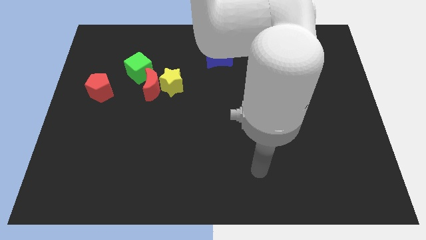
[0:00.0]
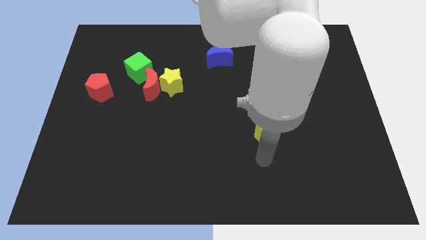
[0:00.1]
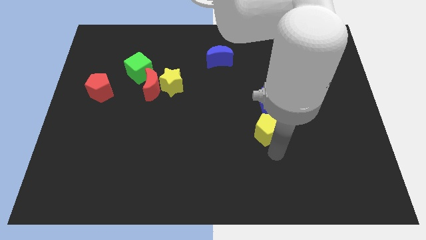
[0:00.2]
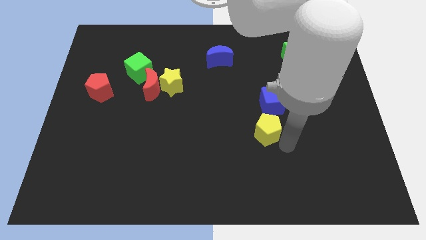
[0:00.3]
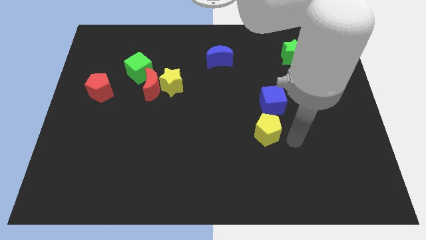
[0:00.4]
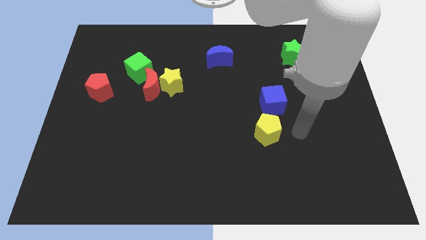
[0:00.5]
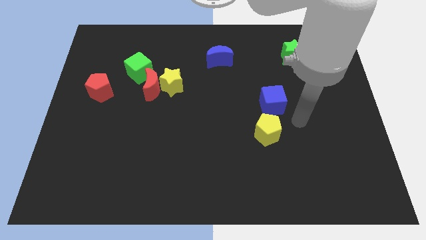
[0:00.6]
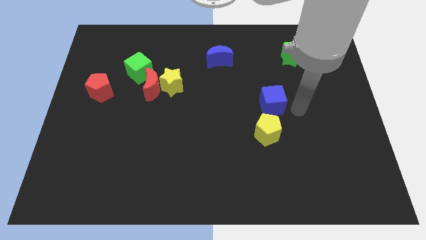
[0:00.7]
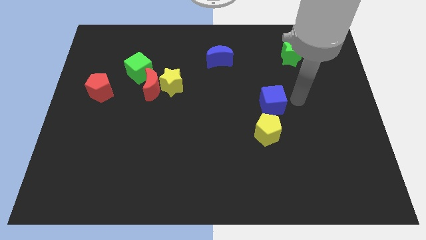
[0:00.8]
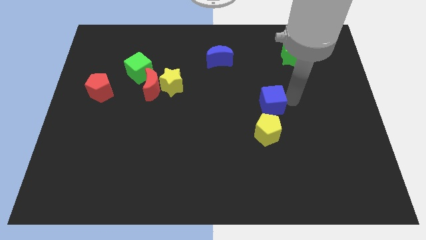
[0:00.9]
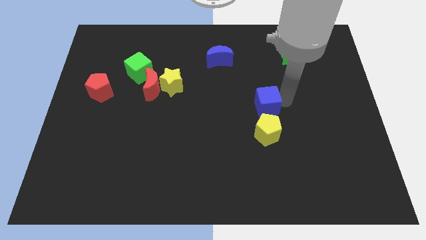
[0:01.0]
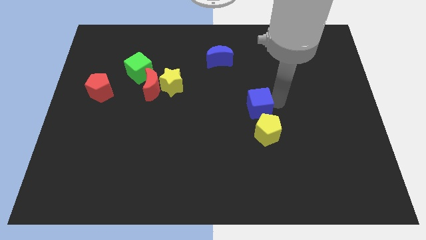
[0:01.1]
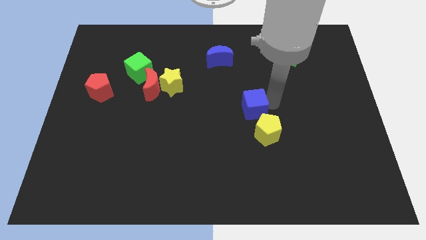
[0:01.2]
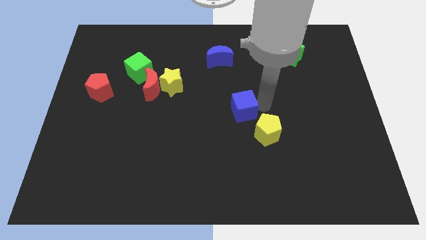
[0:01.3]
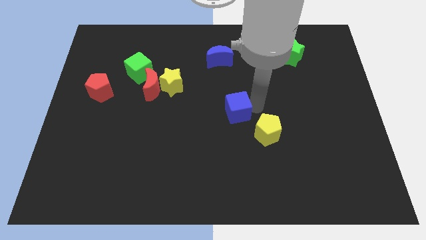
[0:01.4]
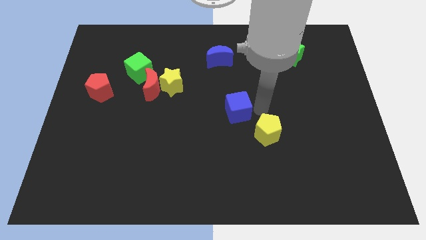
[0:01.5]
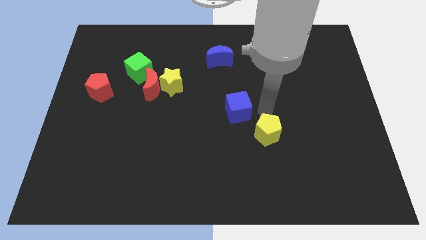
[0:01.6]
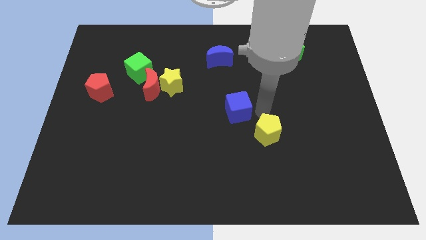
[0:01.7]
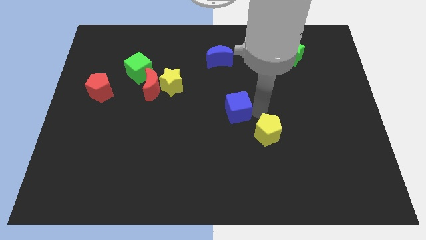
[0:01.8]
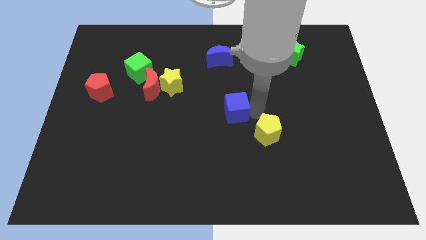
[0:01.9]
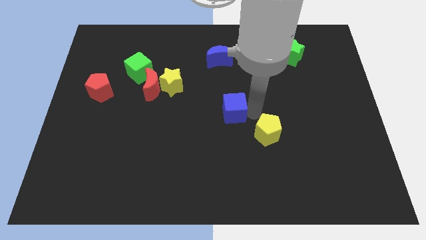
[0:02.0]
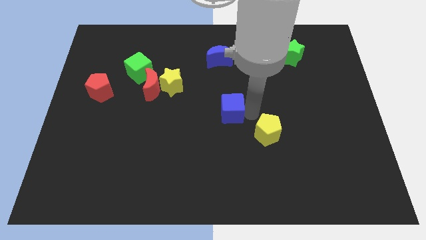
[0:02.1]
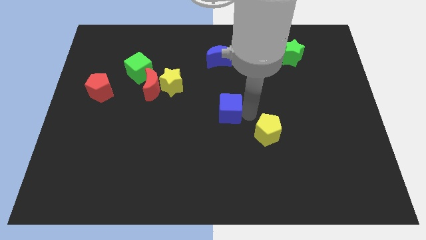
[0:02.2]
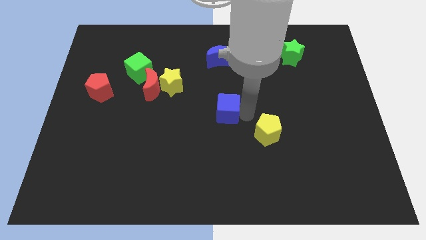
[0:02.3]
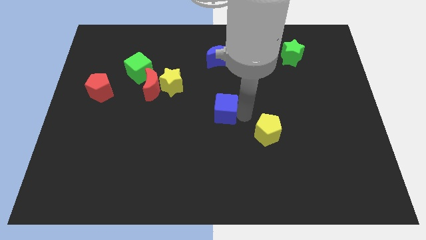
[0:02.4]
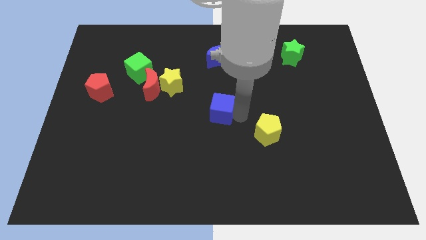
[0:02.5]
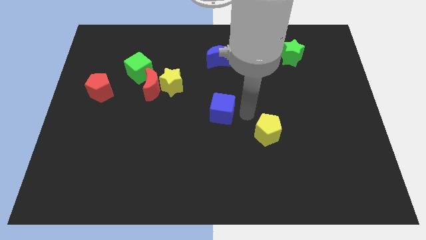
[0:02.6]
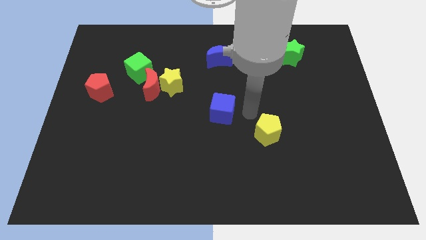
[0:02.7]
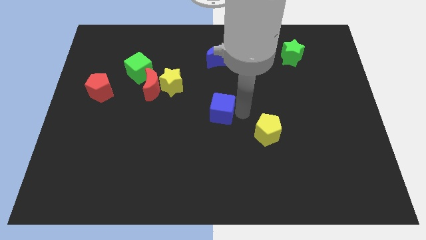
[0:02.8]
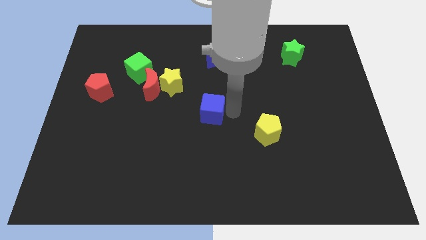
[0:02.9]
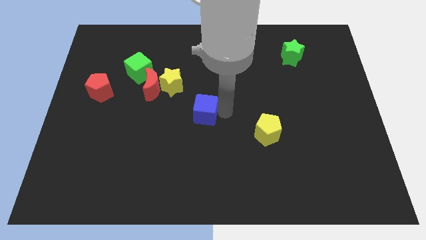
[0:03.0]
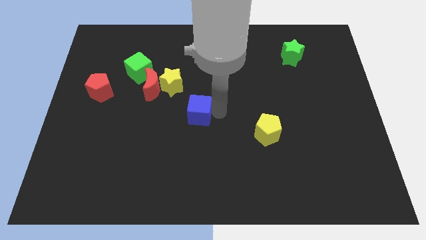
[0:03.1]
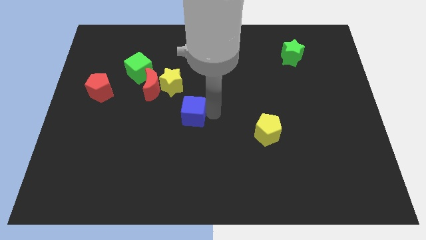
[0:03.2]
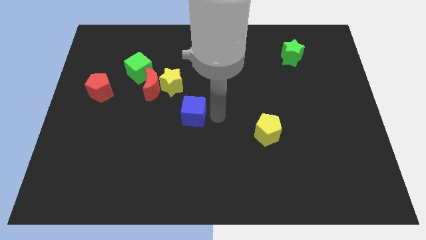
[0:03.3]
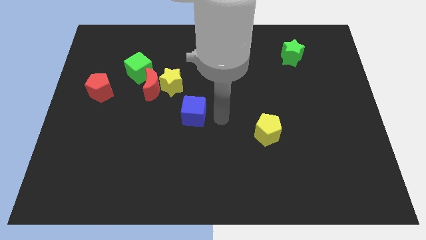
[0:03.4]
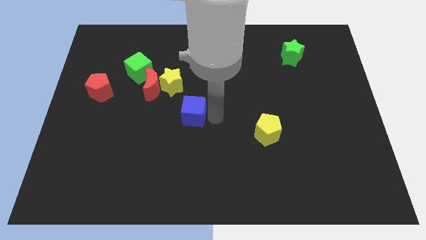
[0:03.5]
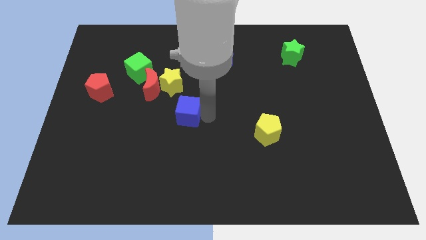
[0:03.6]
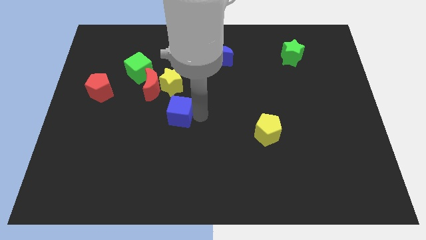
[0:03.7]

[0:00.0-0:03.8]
slide the blue cube left

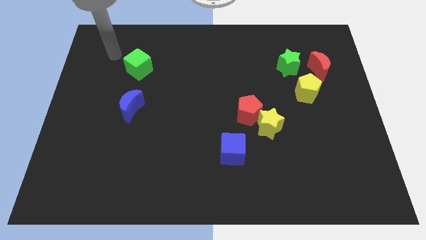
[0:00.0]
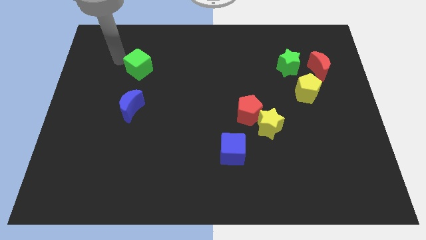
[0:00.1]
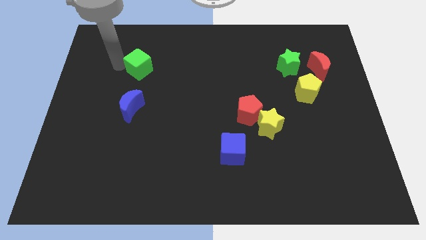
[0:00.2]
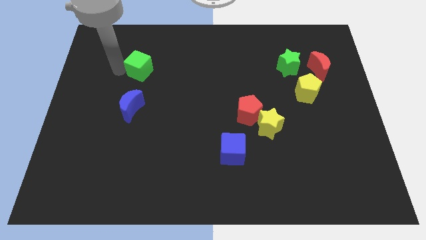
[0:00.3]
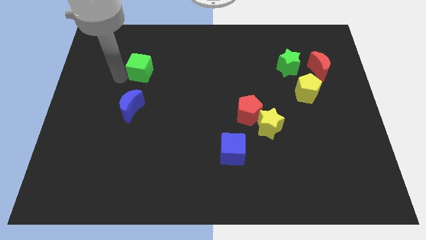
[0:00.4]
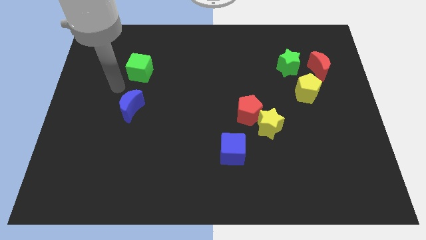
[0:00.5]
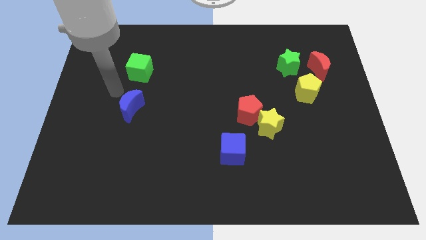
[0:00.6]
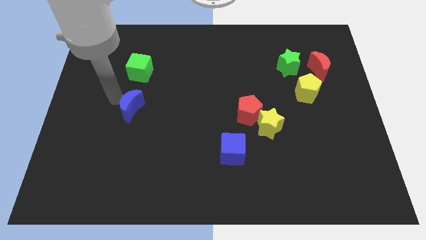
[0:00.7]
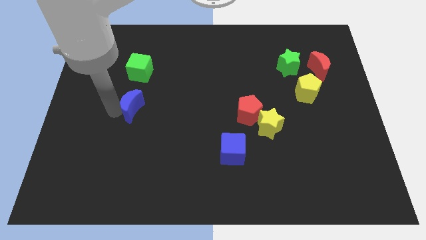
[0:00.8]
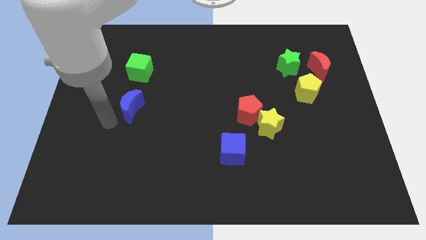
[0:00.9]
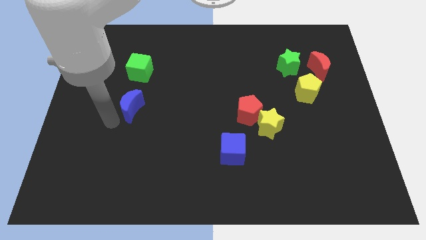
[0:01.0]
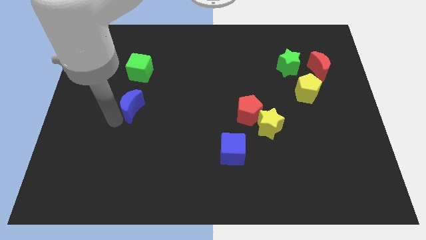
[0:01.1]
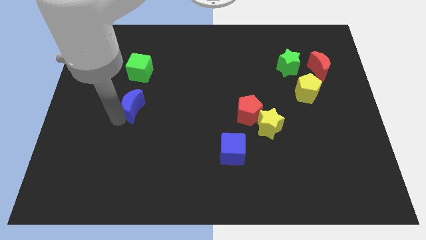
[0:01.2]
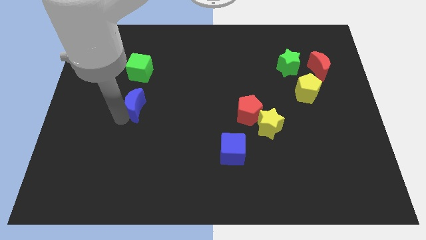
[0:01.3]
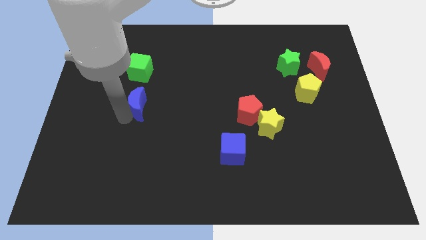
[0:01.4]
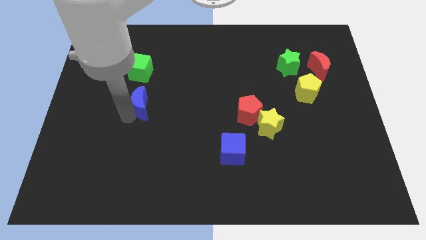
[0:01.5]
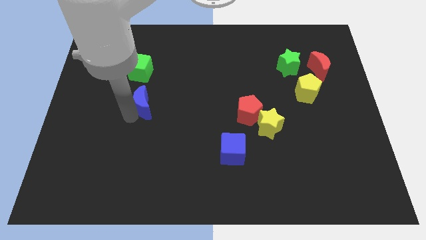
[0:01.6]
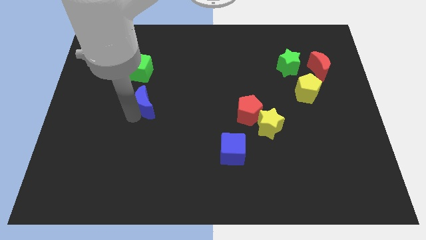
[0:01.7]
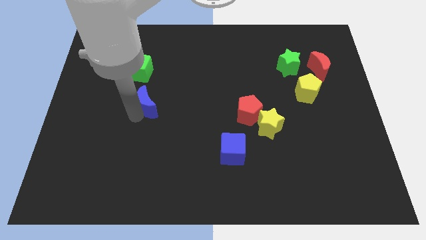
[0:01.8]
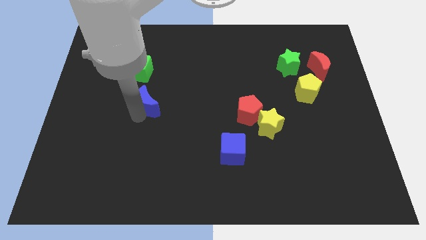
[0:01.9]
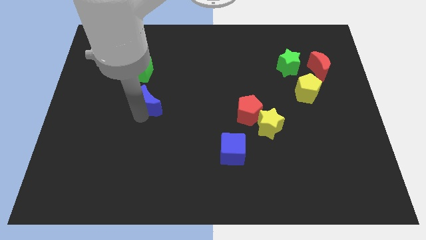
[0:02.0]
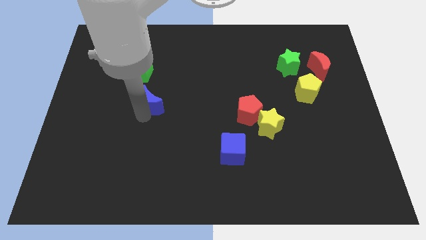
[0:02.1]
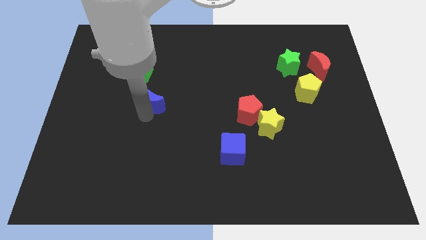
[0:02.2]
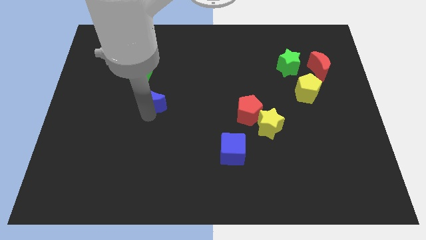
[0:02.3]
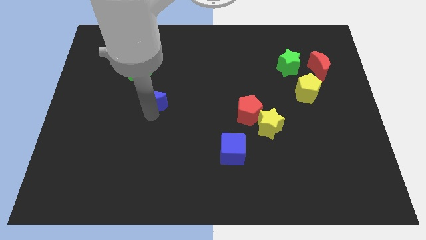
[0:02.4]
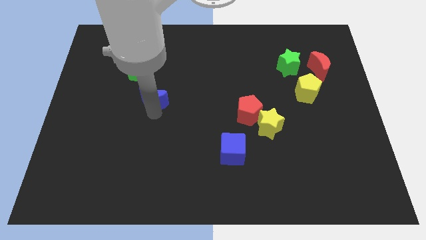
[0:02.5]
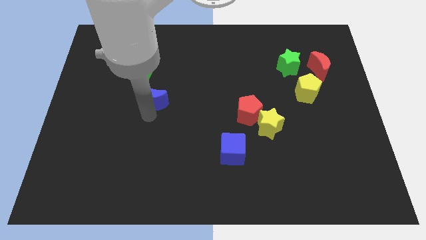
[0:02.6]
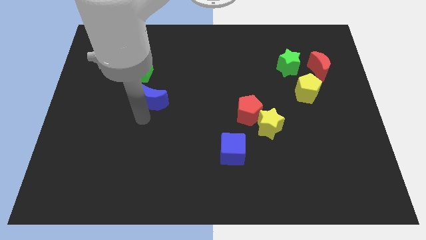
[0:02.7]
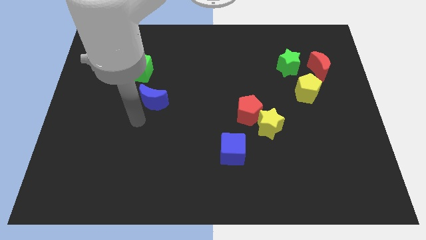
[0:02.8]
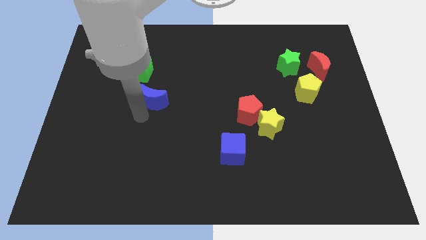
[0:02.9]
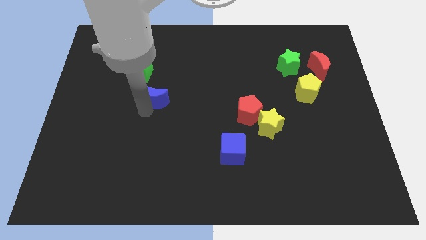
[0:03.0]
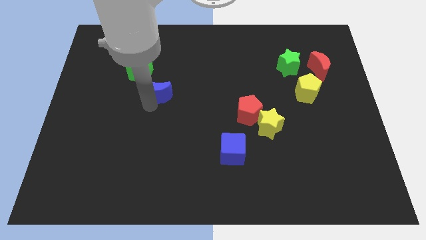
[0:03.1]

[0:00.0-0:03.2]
slide the blue moon a bit up and then to the right

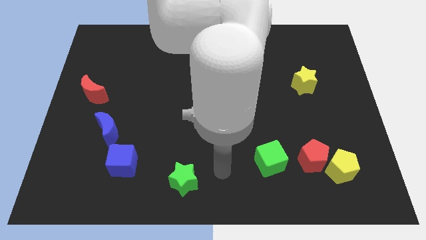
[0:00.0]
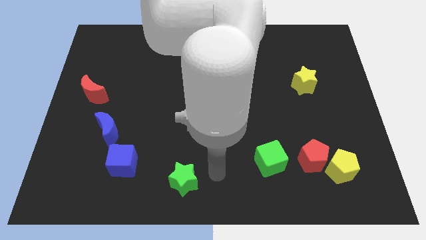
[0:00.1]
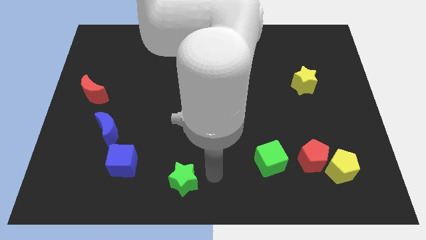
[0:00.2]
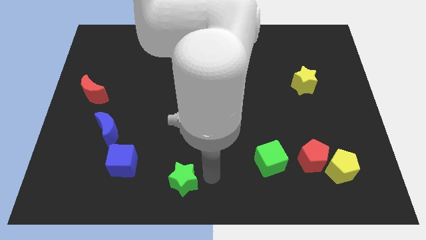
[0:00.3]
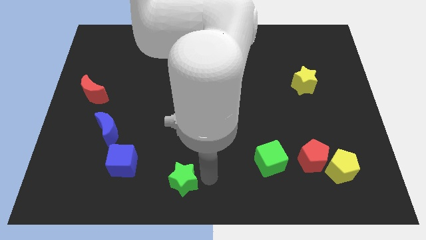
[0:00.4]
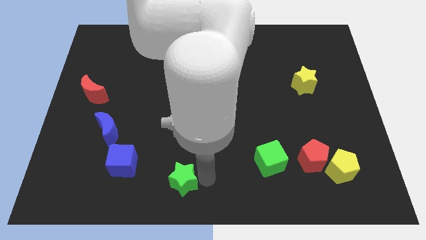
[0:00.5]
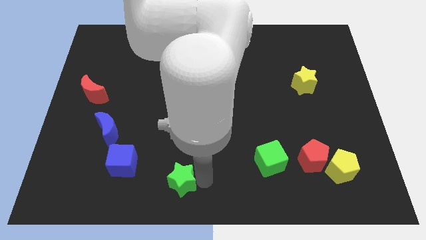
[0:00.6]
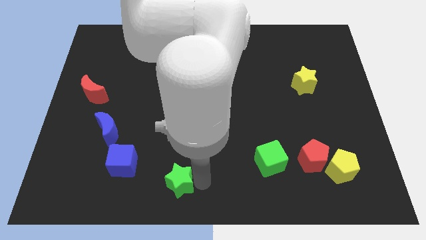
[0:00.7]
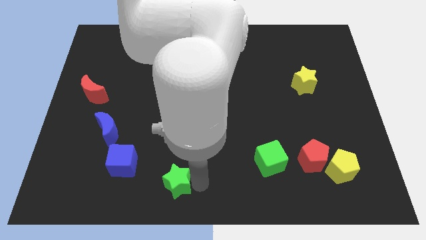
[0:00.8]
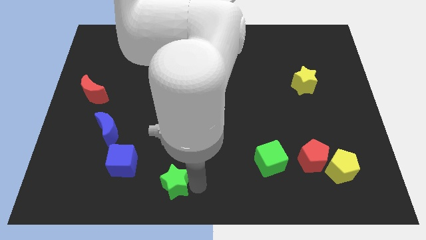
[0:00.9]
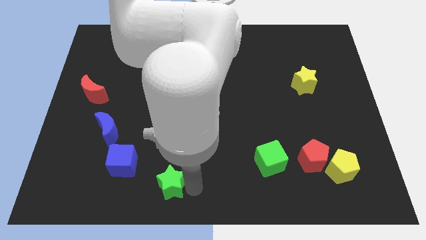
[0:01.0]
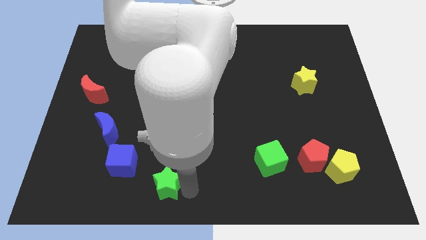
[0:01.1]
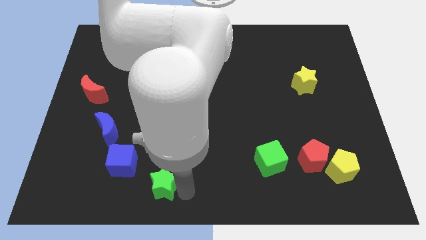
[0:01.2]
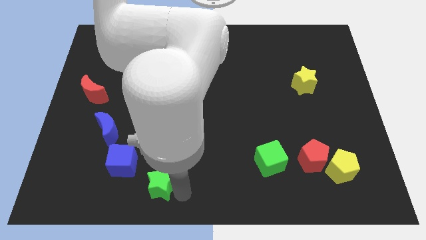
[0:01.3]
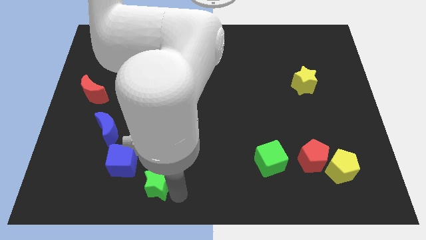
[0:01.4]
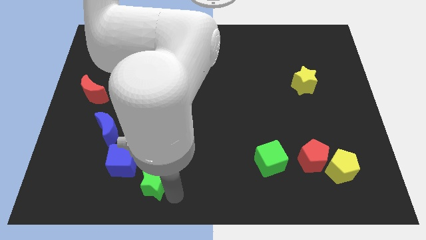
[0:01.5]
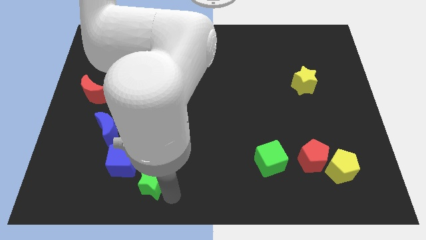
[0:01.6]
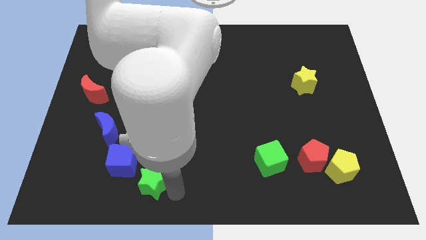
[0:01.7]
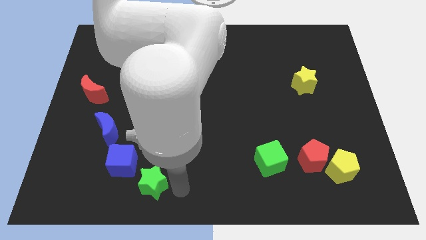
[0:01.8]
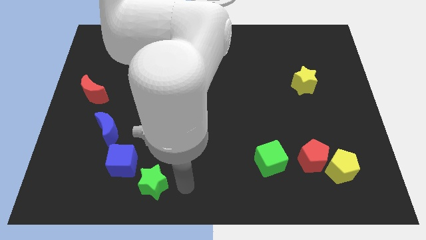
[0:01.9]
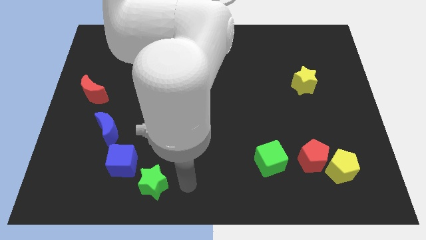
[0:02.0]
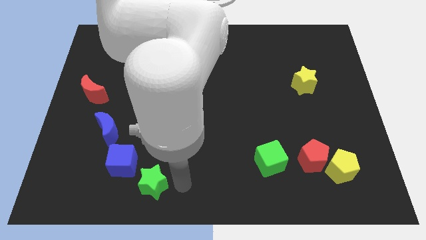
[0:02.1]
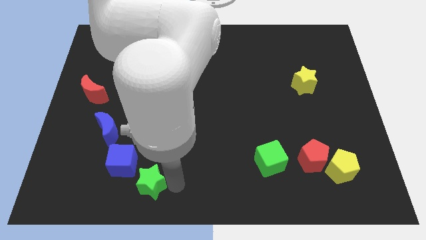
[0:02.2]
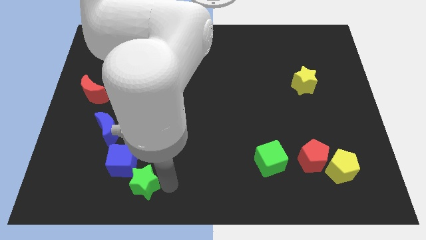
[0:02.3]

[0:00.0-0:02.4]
slide the green star somewhat left
